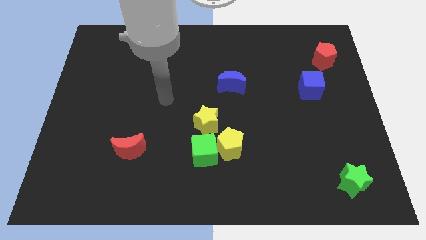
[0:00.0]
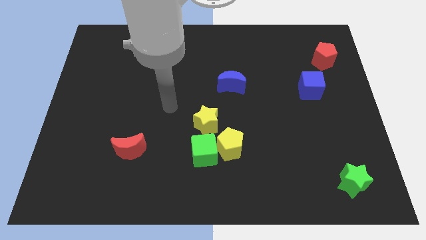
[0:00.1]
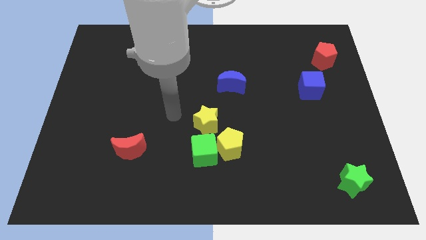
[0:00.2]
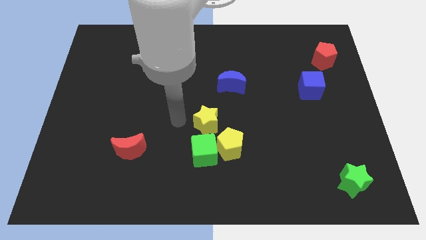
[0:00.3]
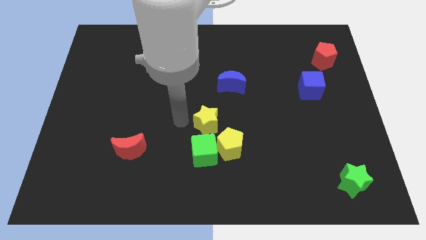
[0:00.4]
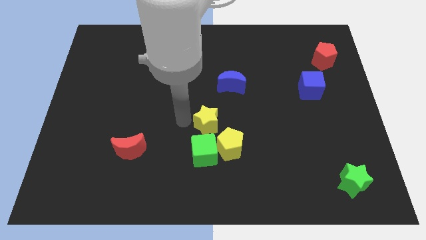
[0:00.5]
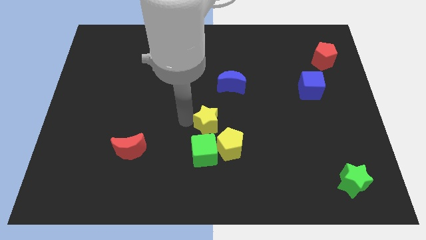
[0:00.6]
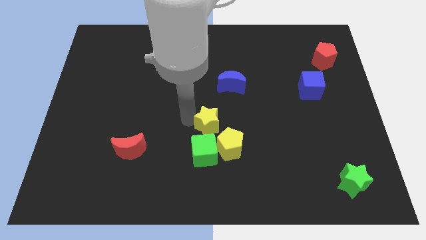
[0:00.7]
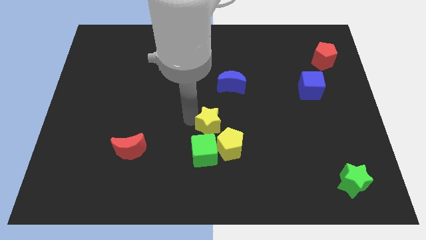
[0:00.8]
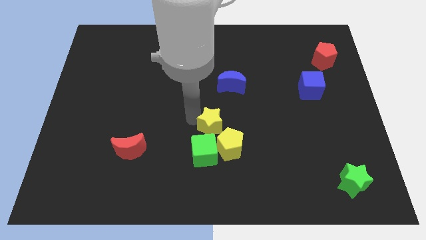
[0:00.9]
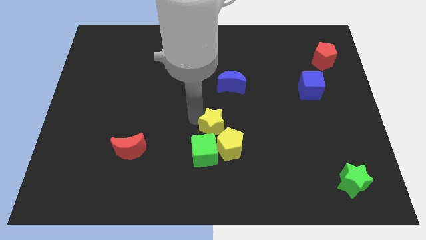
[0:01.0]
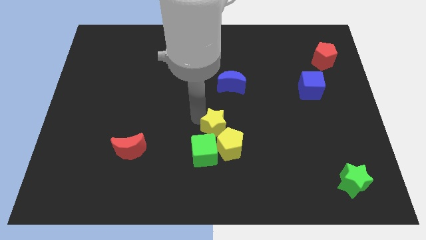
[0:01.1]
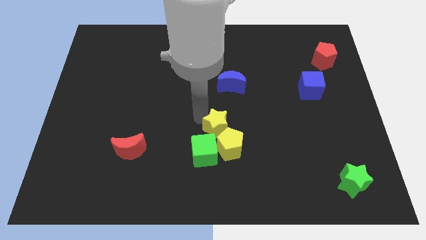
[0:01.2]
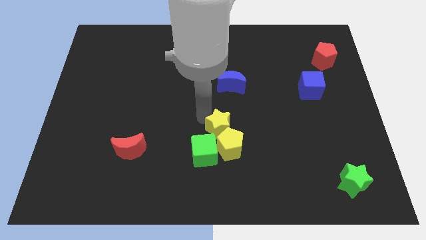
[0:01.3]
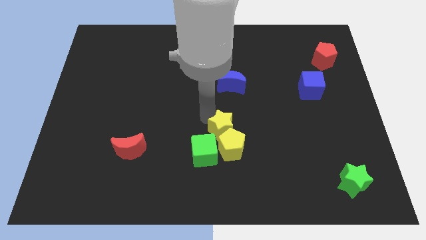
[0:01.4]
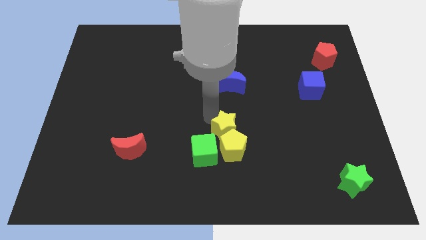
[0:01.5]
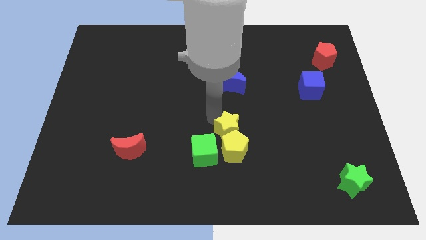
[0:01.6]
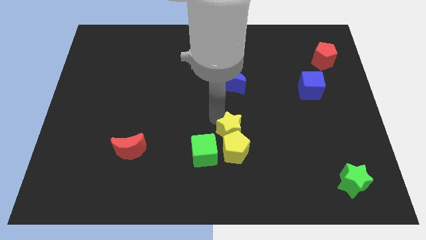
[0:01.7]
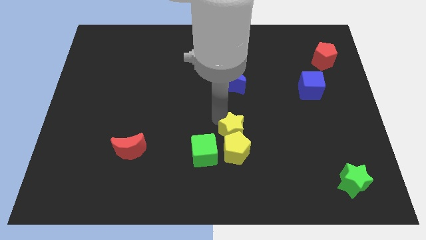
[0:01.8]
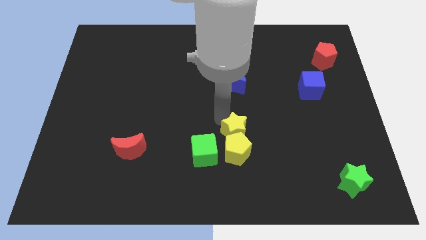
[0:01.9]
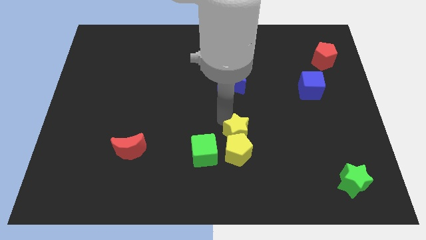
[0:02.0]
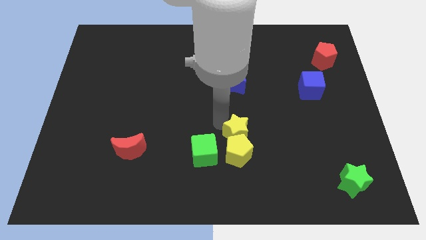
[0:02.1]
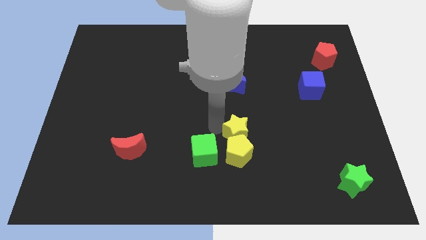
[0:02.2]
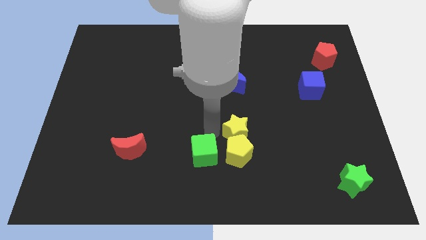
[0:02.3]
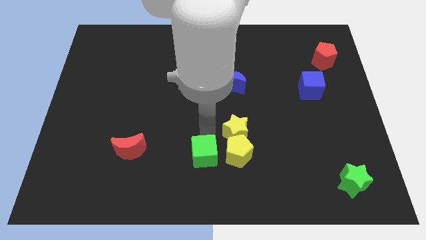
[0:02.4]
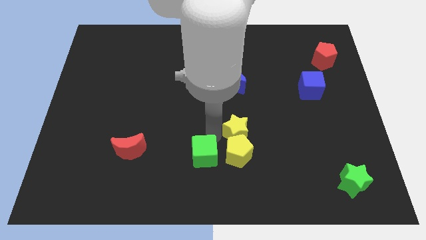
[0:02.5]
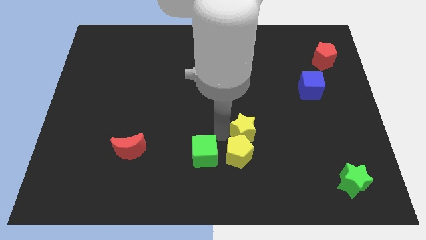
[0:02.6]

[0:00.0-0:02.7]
push the yellow star to the right slightly

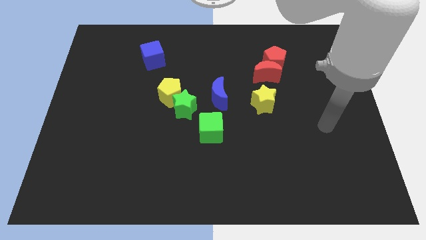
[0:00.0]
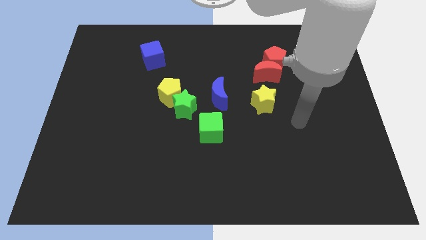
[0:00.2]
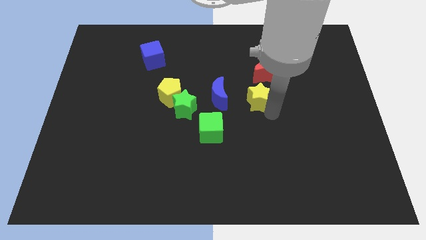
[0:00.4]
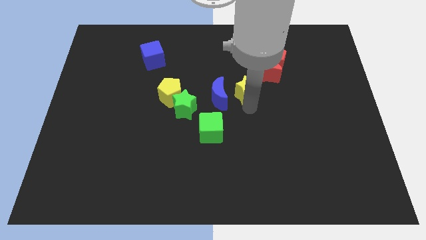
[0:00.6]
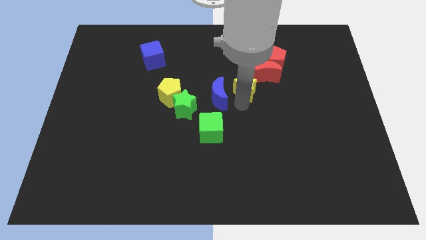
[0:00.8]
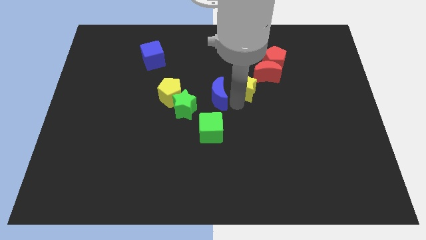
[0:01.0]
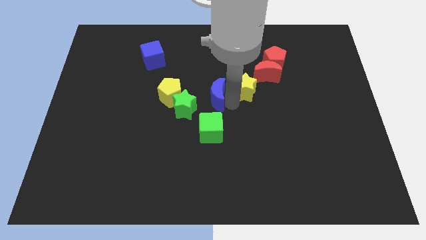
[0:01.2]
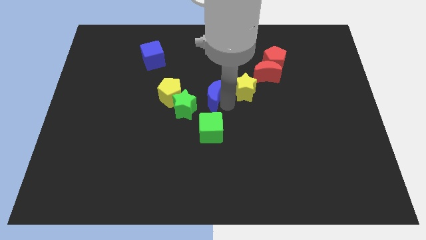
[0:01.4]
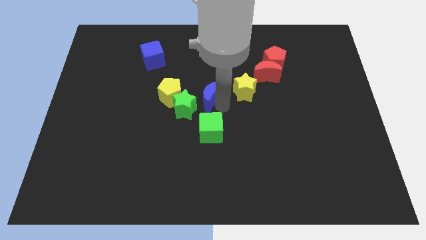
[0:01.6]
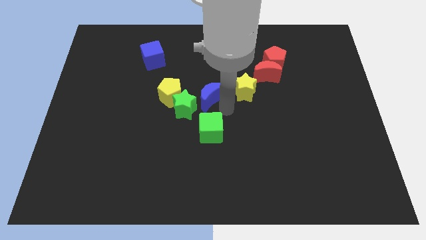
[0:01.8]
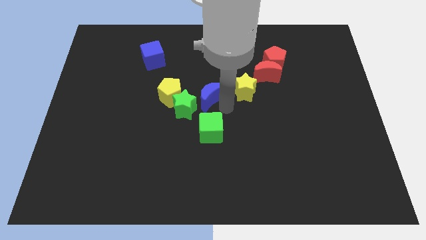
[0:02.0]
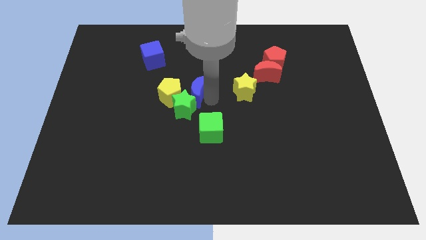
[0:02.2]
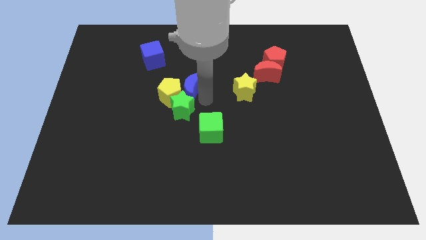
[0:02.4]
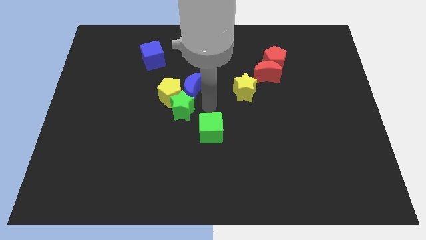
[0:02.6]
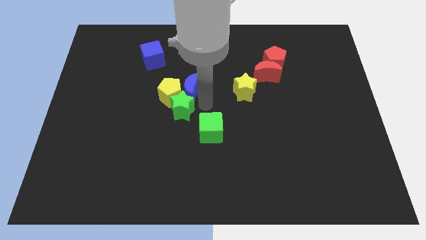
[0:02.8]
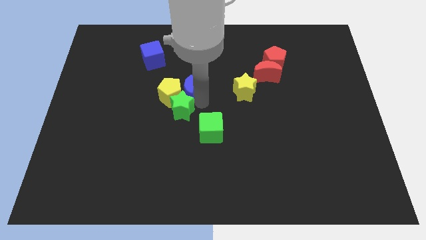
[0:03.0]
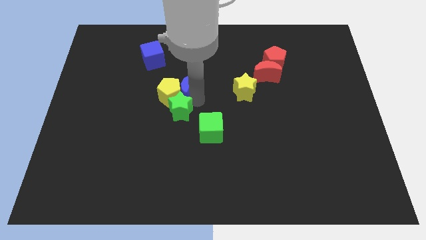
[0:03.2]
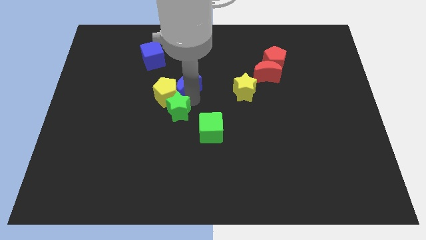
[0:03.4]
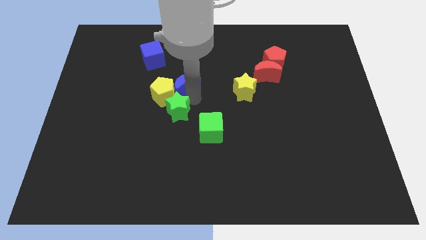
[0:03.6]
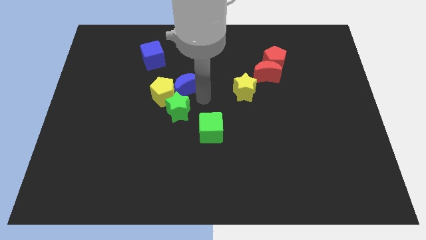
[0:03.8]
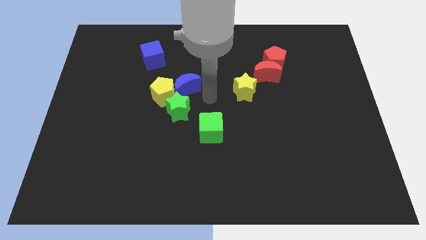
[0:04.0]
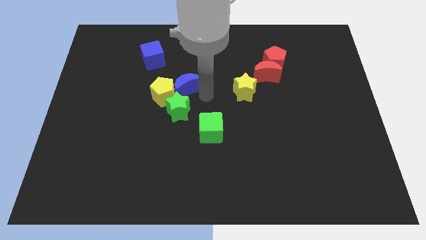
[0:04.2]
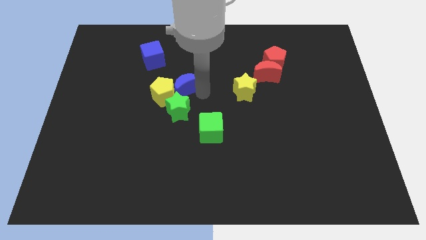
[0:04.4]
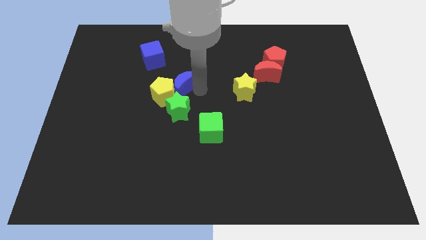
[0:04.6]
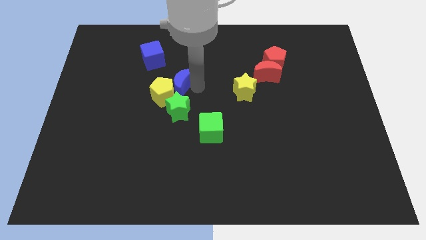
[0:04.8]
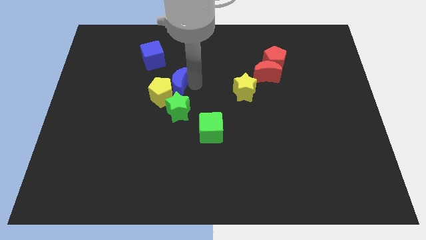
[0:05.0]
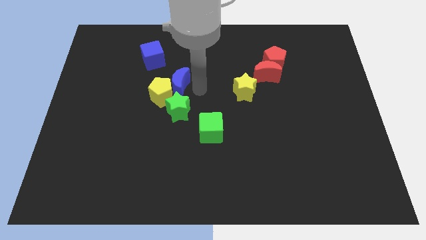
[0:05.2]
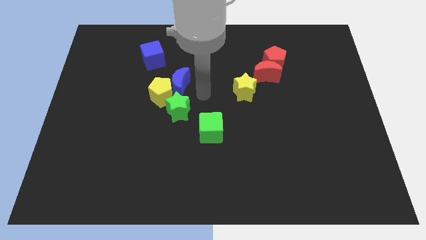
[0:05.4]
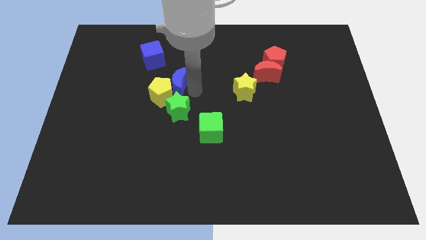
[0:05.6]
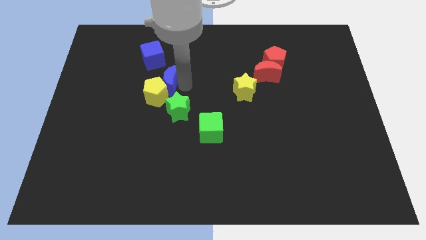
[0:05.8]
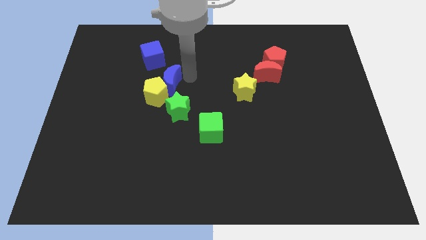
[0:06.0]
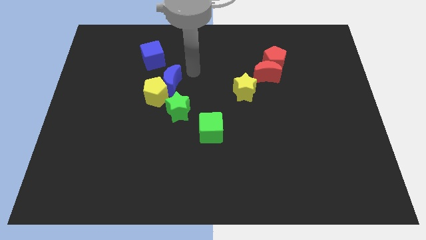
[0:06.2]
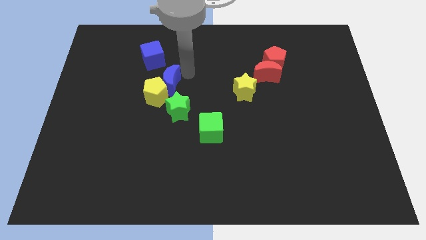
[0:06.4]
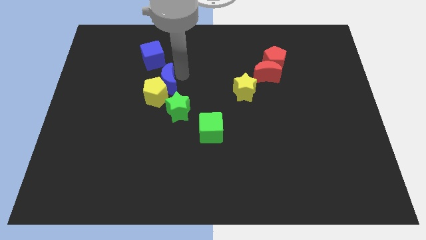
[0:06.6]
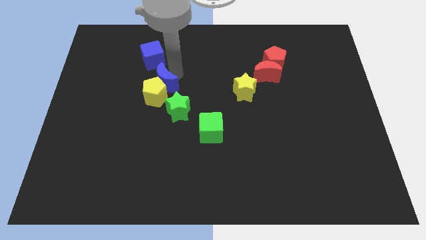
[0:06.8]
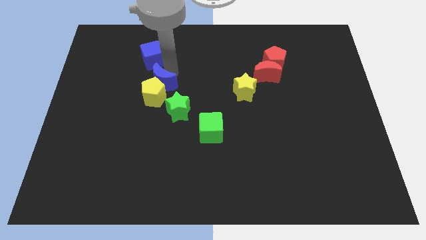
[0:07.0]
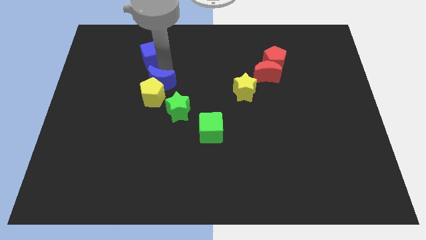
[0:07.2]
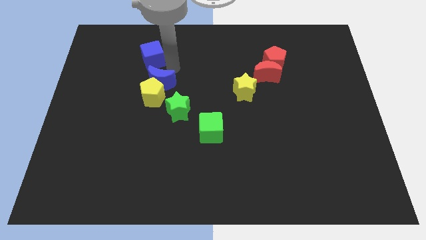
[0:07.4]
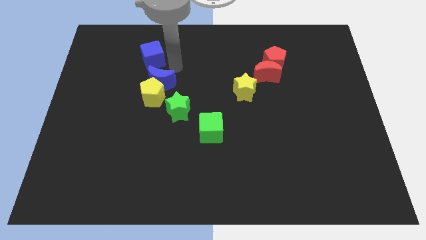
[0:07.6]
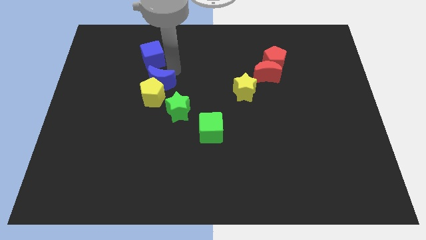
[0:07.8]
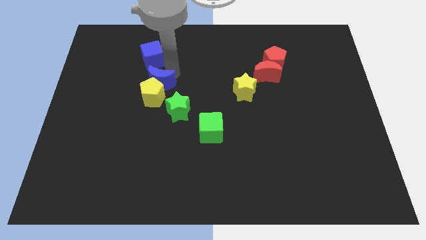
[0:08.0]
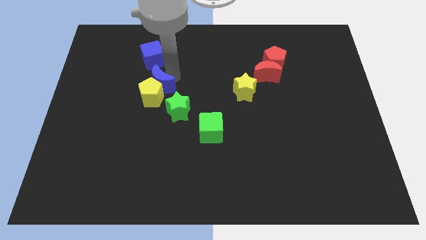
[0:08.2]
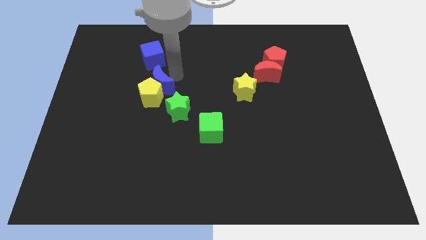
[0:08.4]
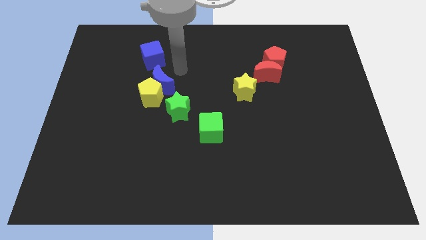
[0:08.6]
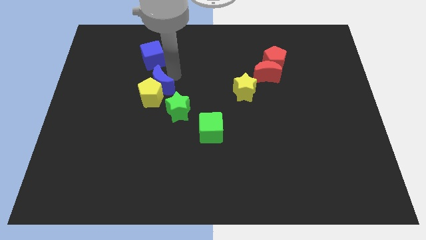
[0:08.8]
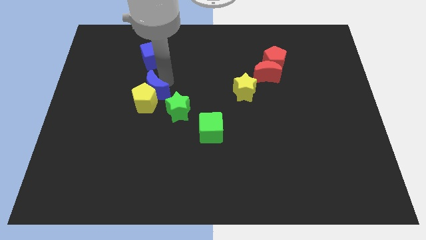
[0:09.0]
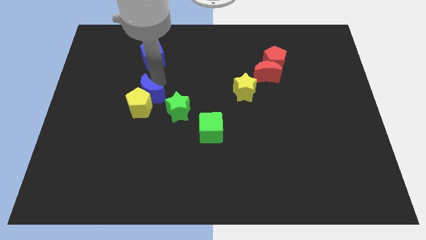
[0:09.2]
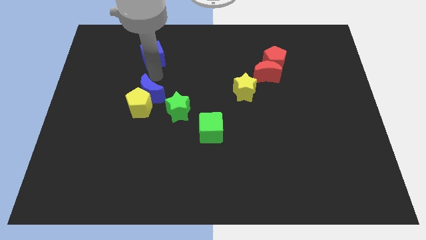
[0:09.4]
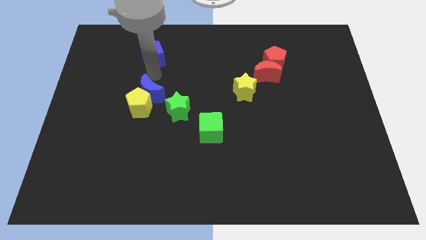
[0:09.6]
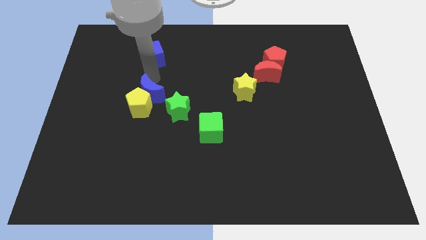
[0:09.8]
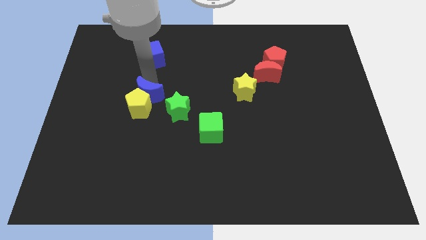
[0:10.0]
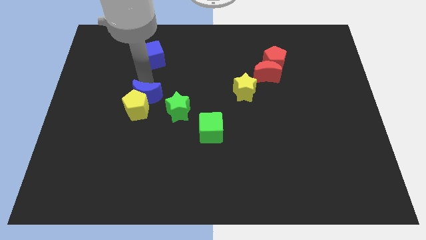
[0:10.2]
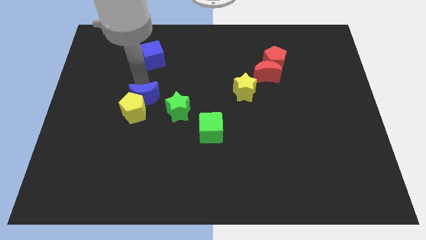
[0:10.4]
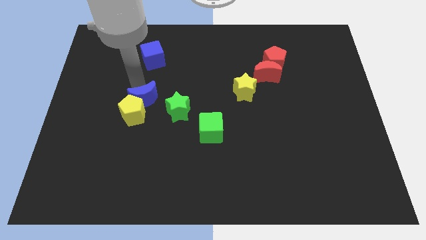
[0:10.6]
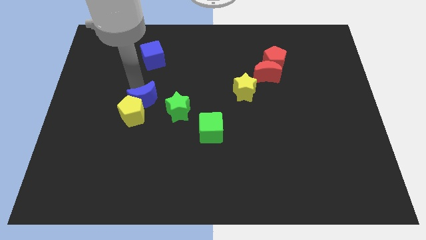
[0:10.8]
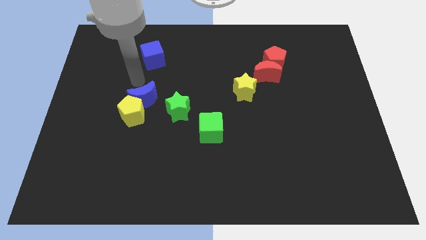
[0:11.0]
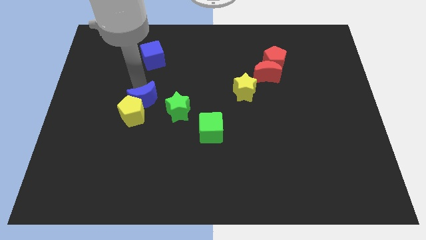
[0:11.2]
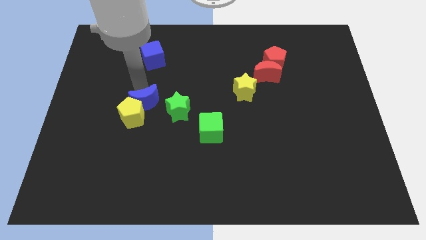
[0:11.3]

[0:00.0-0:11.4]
move the blue moon down and left somewhat

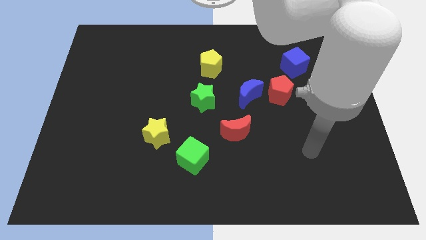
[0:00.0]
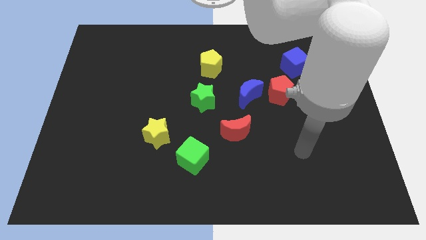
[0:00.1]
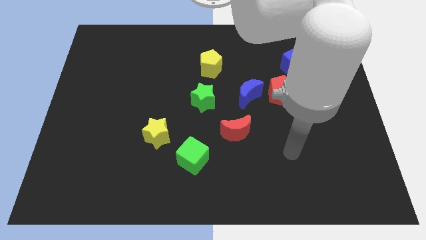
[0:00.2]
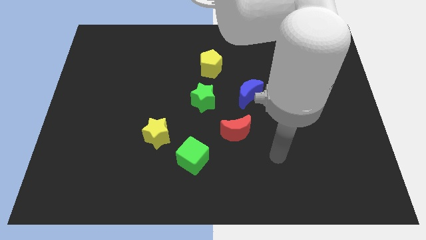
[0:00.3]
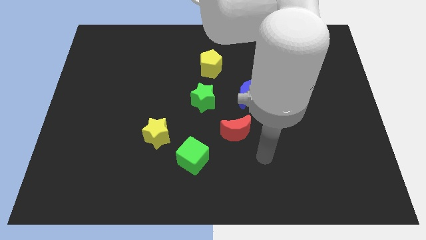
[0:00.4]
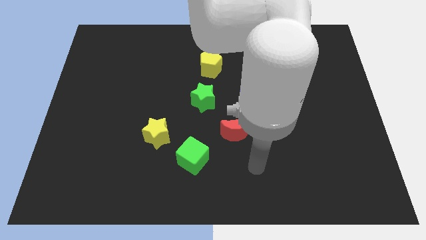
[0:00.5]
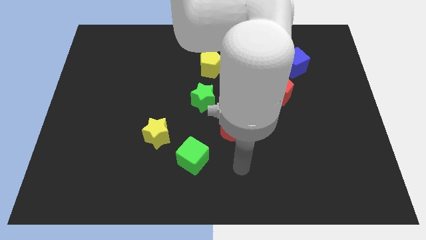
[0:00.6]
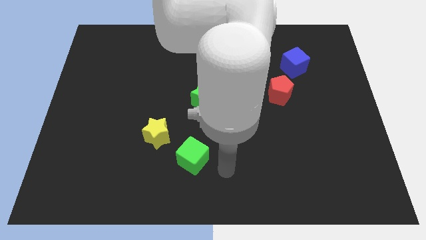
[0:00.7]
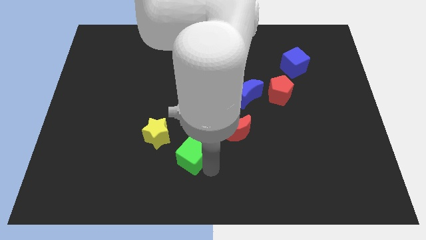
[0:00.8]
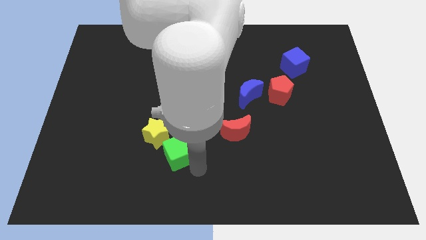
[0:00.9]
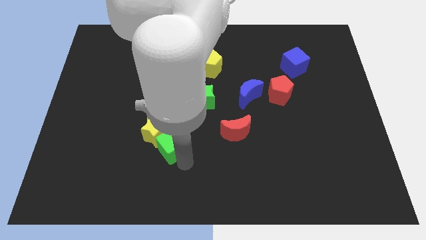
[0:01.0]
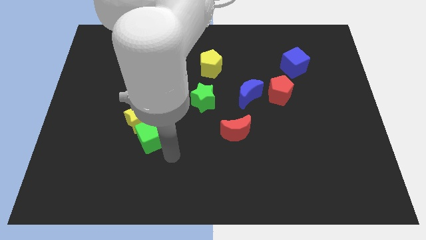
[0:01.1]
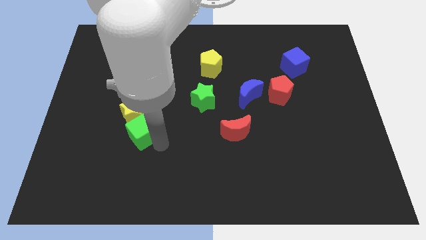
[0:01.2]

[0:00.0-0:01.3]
slightly push the yellow star up and to the left diagonally
